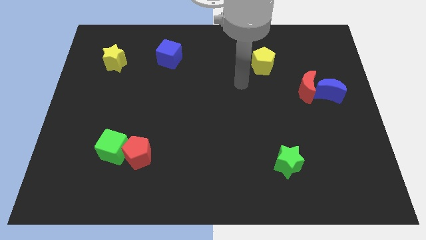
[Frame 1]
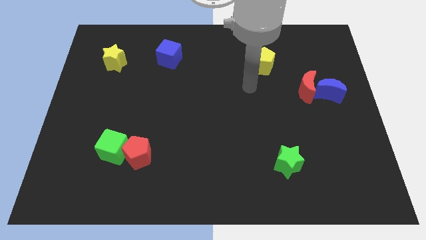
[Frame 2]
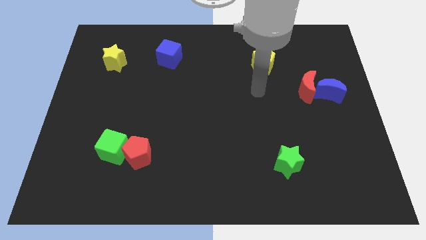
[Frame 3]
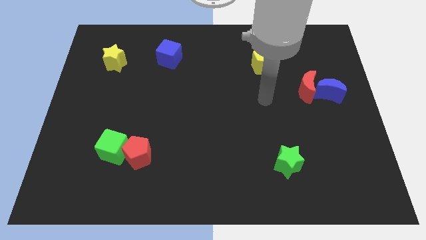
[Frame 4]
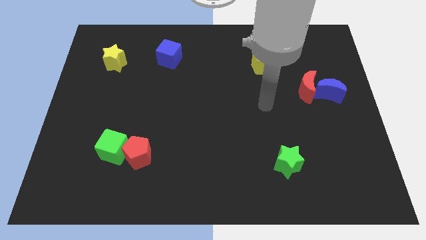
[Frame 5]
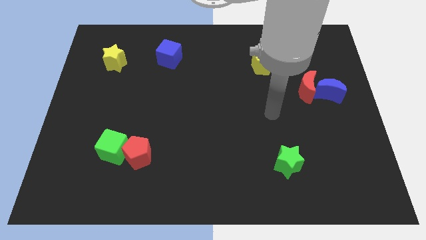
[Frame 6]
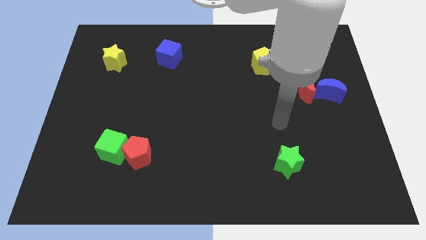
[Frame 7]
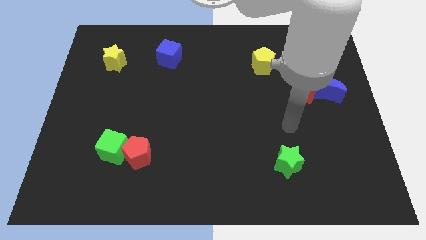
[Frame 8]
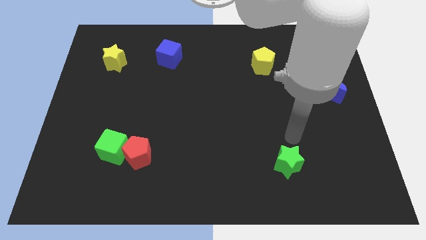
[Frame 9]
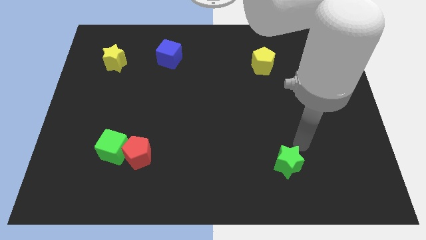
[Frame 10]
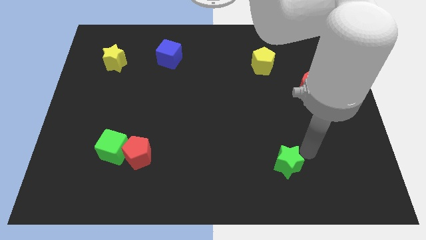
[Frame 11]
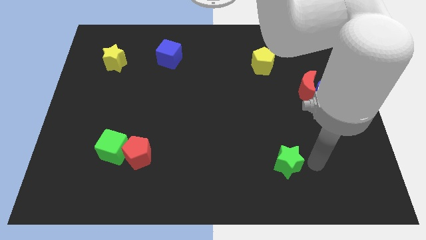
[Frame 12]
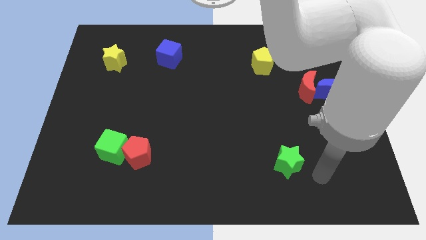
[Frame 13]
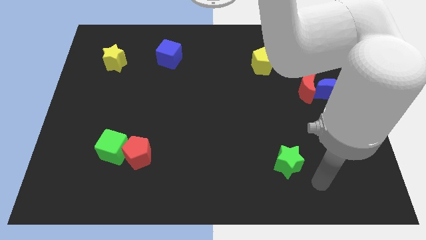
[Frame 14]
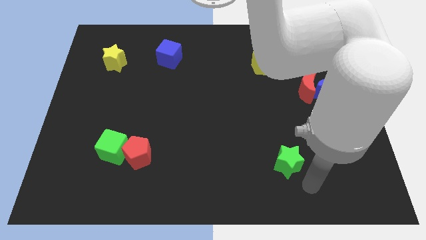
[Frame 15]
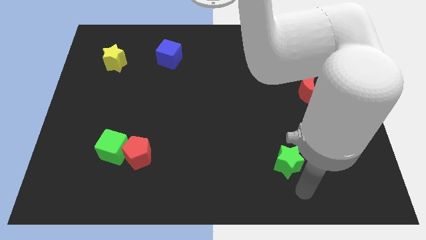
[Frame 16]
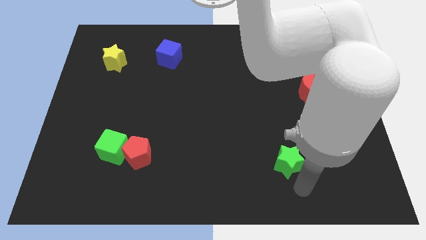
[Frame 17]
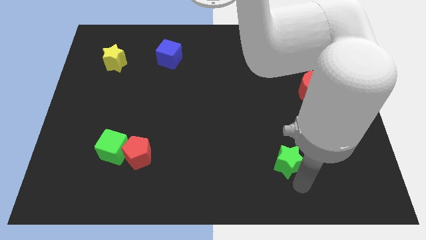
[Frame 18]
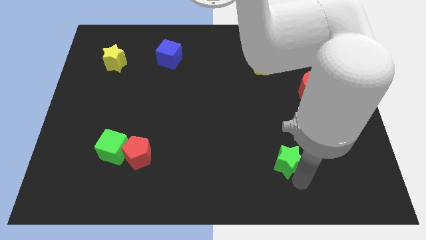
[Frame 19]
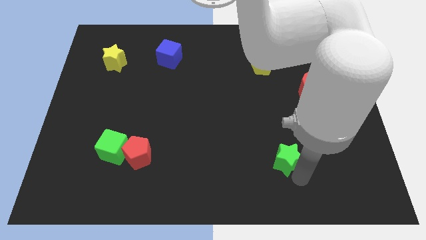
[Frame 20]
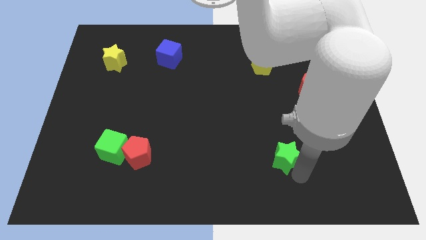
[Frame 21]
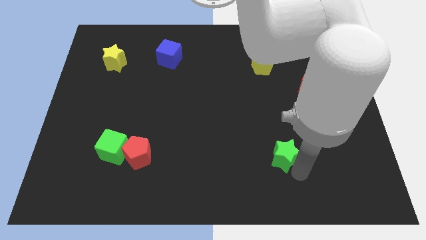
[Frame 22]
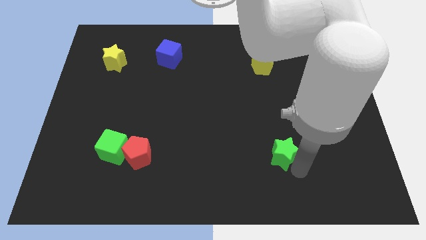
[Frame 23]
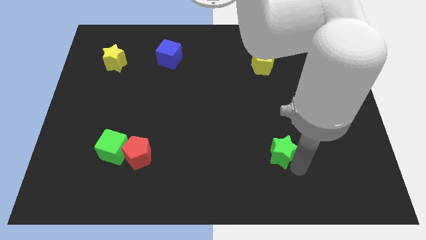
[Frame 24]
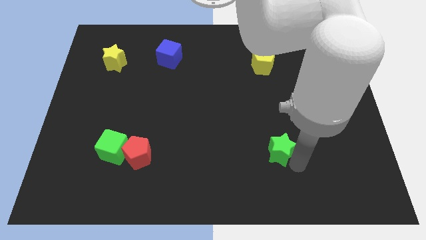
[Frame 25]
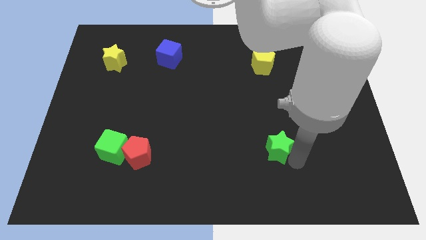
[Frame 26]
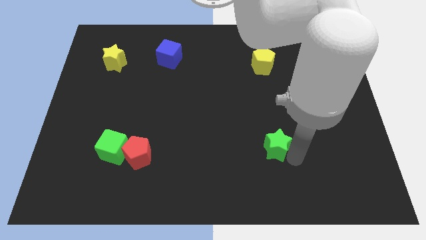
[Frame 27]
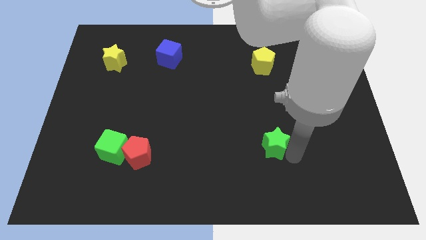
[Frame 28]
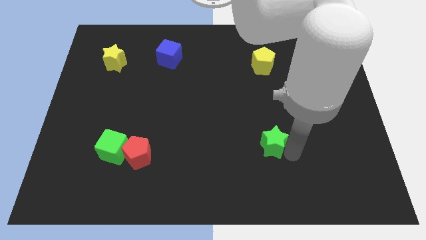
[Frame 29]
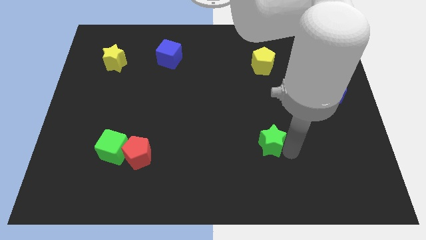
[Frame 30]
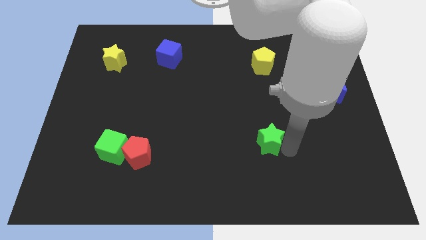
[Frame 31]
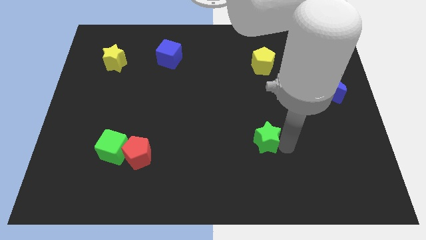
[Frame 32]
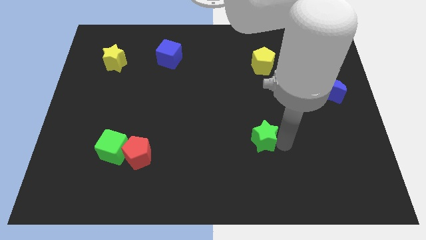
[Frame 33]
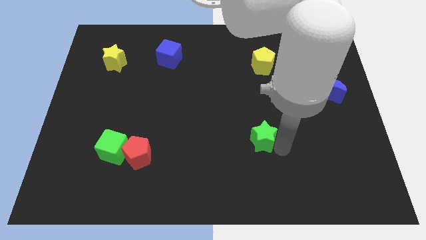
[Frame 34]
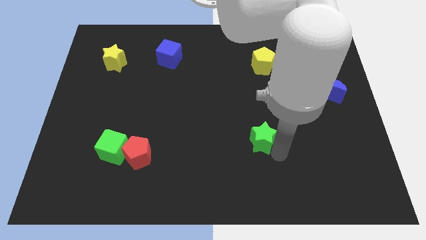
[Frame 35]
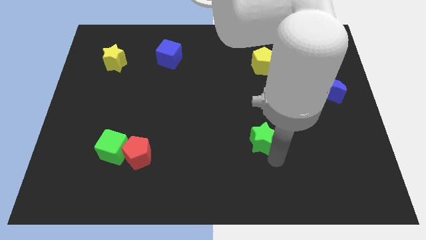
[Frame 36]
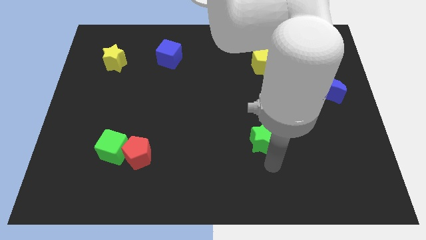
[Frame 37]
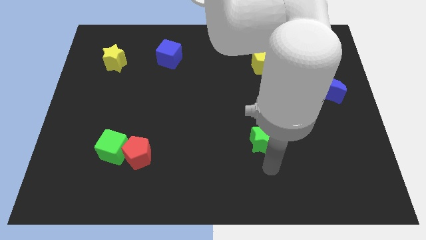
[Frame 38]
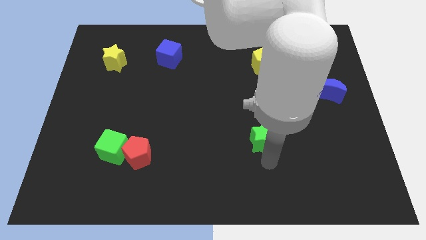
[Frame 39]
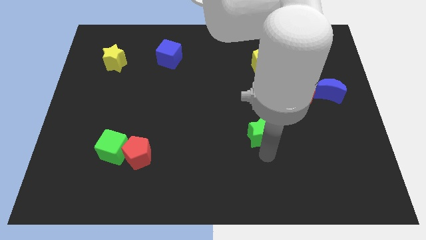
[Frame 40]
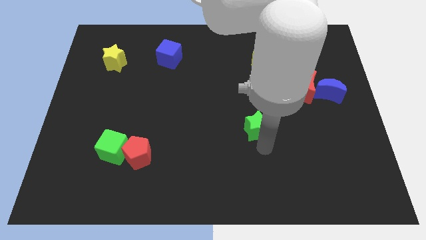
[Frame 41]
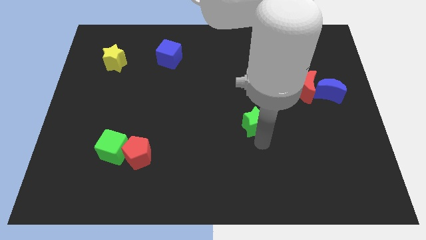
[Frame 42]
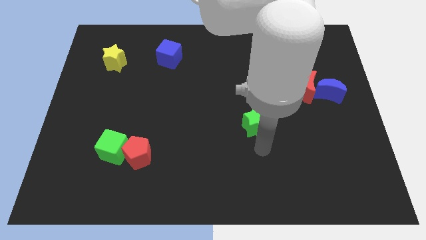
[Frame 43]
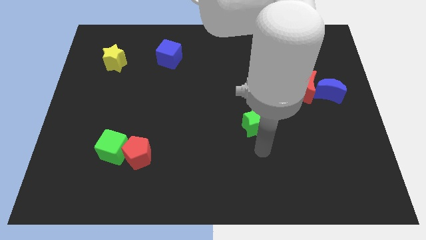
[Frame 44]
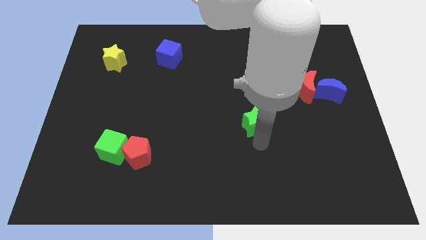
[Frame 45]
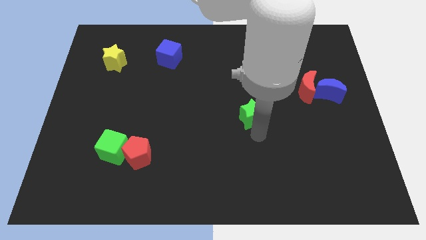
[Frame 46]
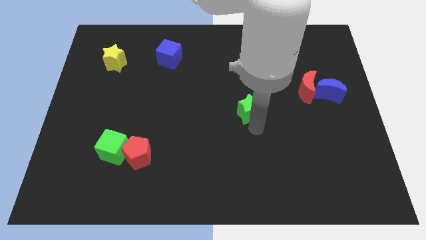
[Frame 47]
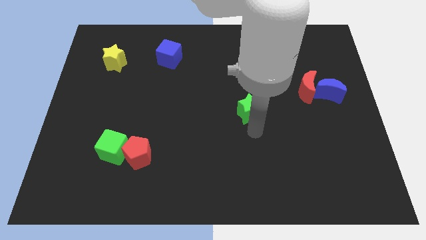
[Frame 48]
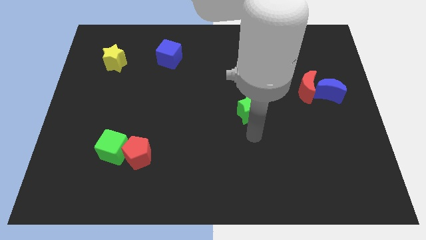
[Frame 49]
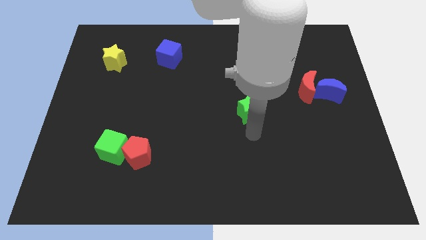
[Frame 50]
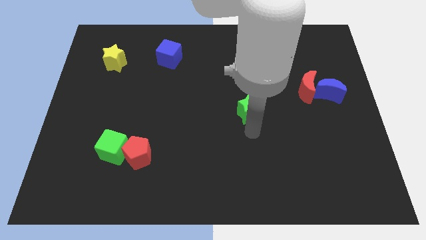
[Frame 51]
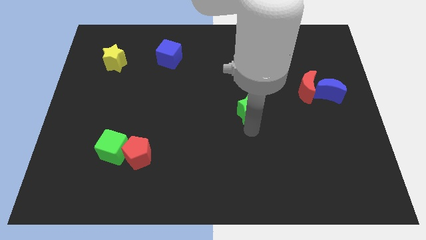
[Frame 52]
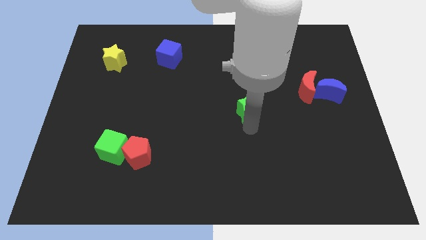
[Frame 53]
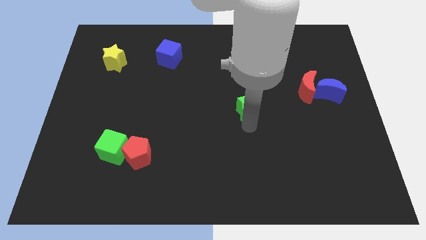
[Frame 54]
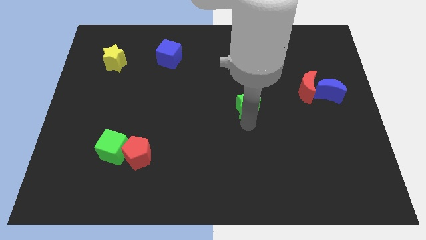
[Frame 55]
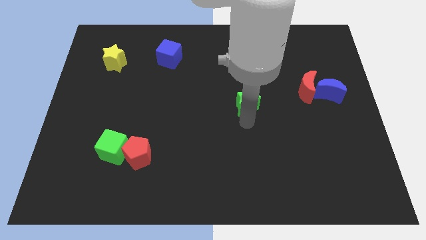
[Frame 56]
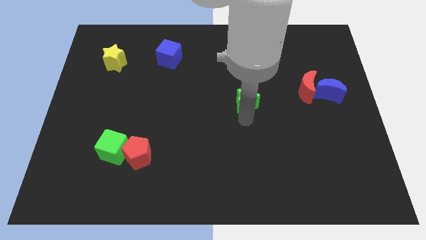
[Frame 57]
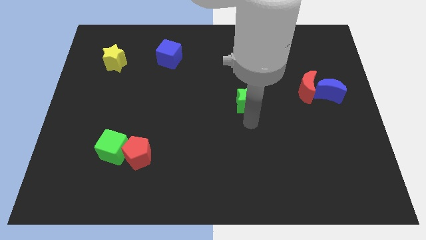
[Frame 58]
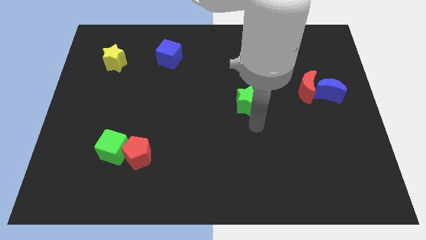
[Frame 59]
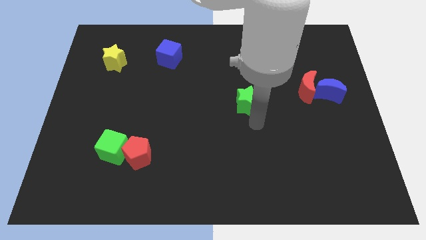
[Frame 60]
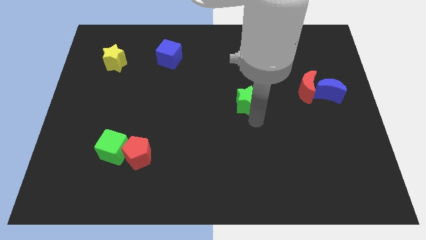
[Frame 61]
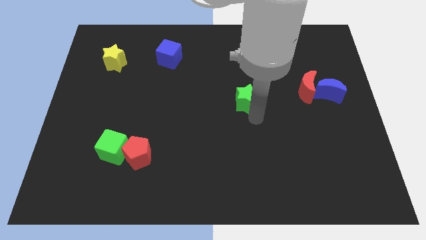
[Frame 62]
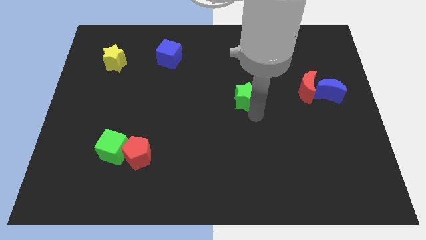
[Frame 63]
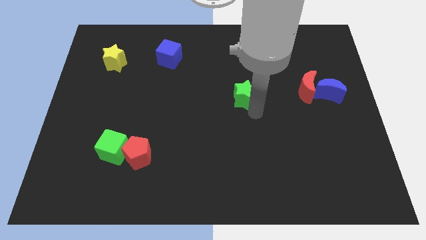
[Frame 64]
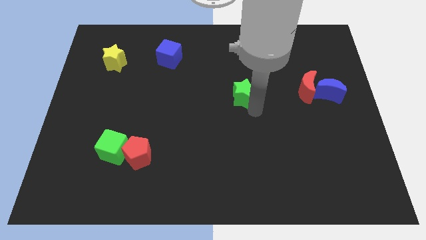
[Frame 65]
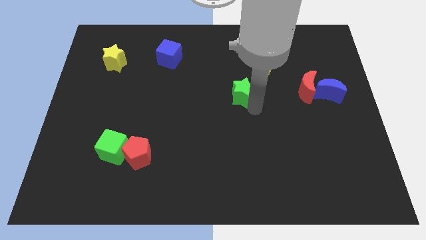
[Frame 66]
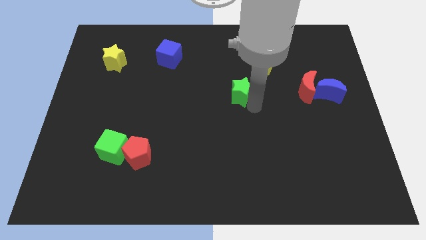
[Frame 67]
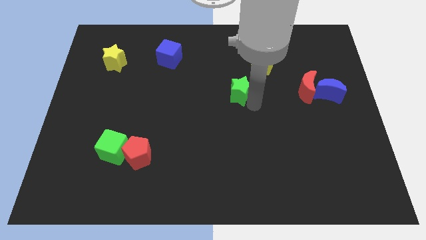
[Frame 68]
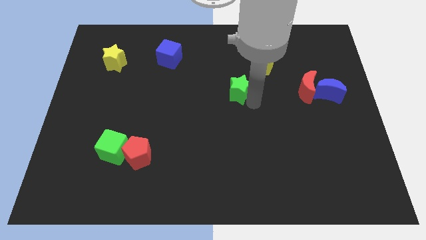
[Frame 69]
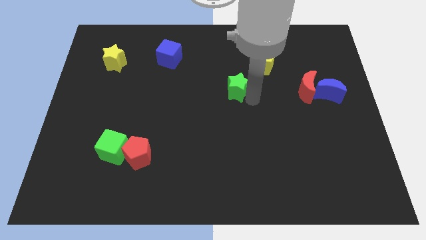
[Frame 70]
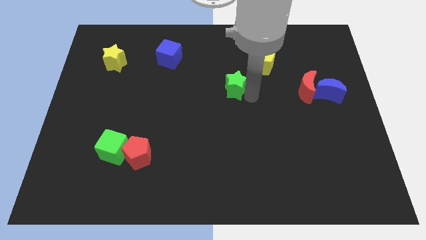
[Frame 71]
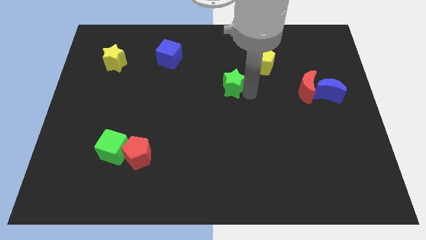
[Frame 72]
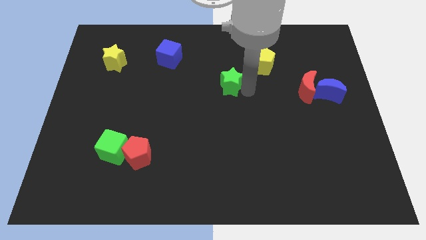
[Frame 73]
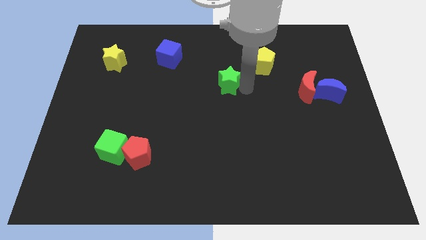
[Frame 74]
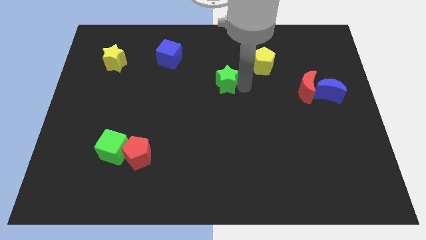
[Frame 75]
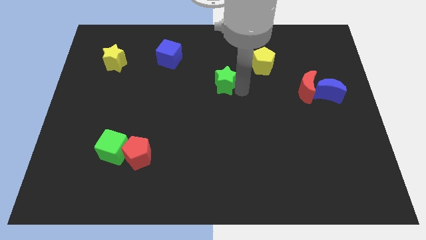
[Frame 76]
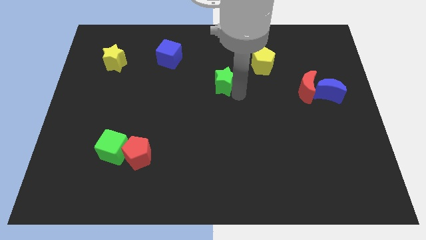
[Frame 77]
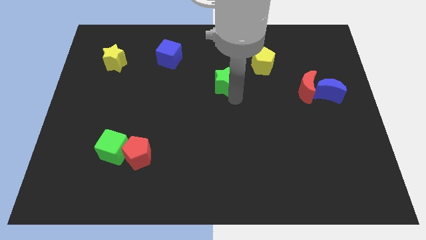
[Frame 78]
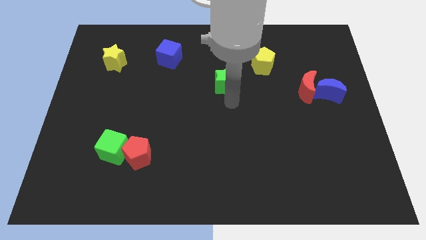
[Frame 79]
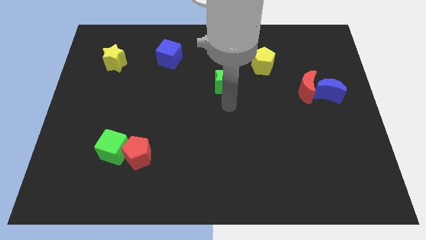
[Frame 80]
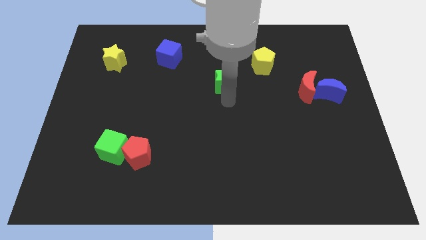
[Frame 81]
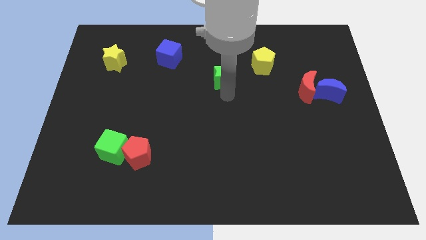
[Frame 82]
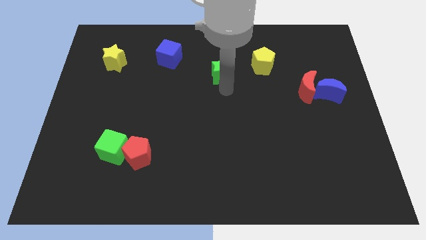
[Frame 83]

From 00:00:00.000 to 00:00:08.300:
slide the green star just left of the yellow pentagon

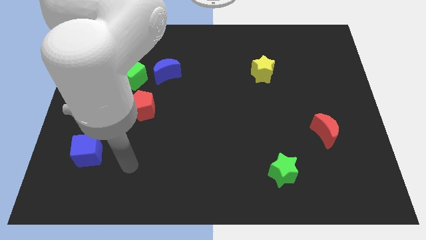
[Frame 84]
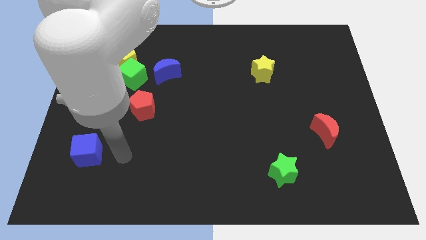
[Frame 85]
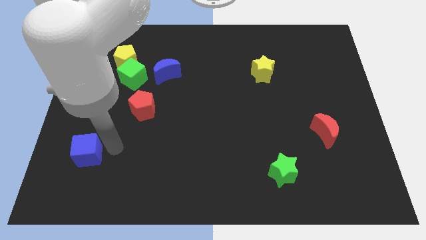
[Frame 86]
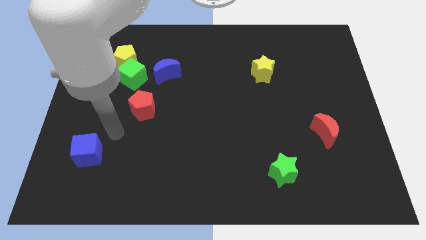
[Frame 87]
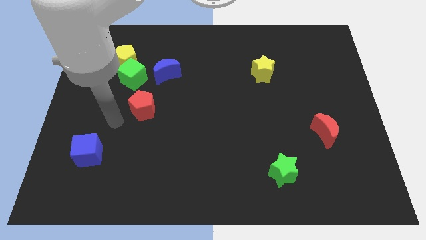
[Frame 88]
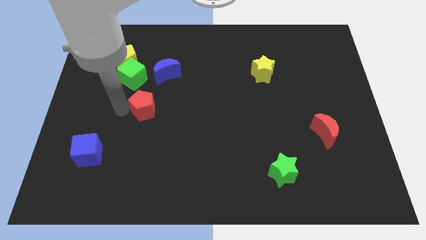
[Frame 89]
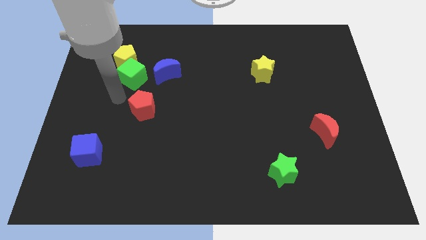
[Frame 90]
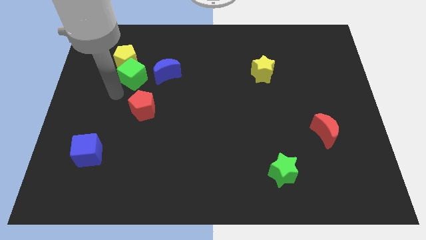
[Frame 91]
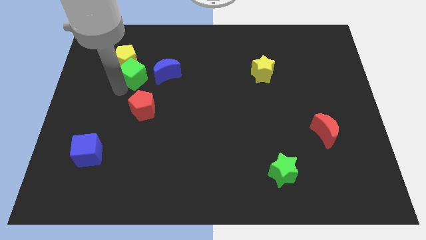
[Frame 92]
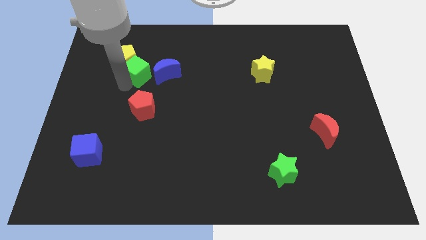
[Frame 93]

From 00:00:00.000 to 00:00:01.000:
slide the green cube to the right of the yellow pentagon
